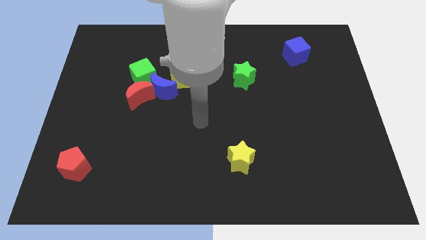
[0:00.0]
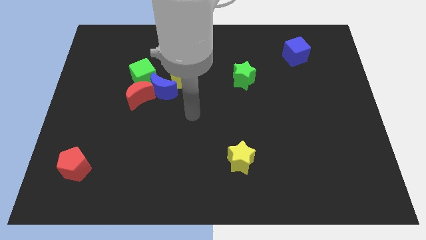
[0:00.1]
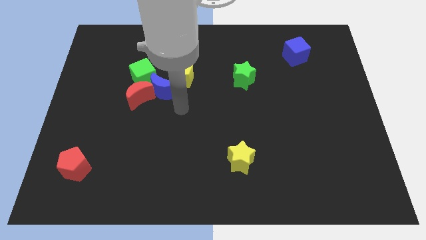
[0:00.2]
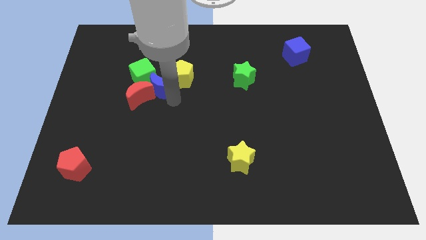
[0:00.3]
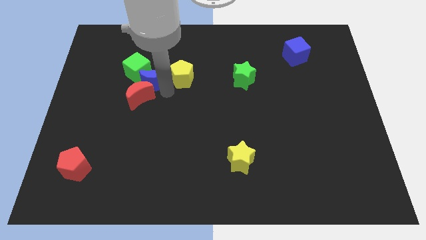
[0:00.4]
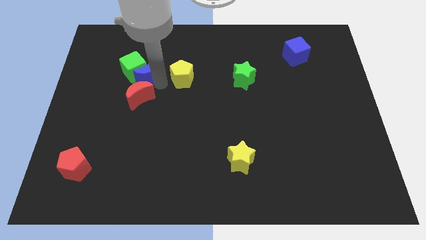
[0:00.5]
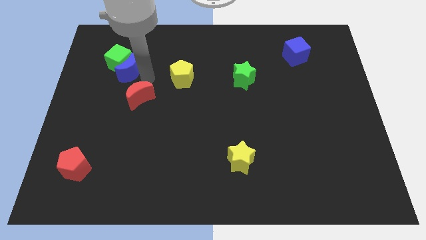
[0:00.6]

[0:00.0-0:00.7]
pull the red moon apart from the blue moon and green cube

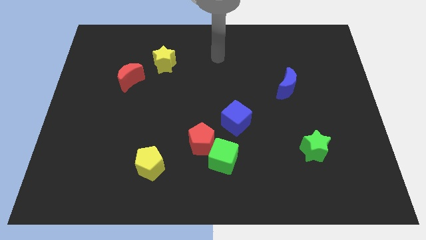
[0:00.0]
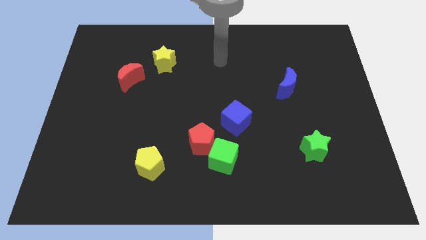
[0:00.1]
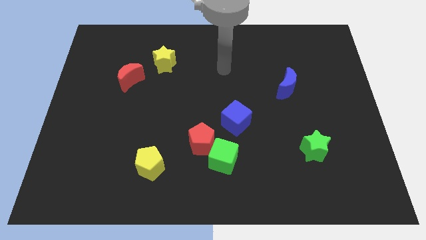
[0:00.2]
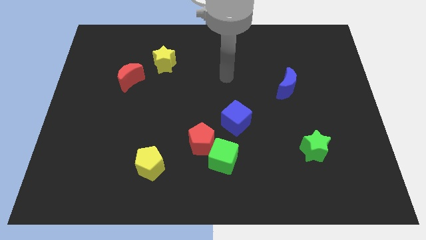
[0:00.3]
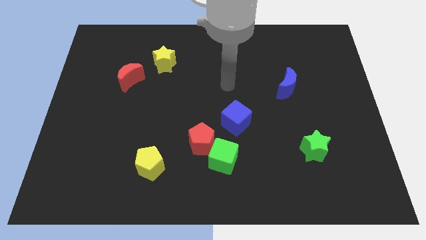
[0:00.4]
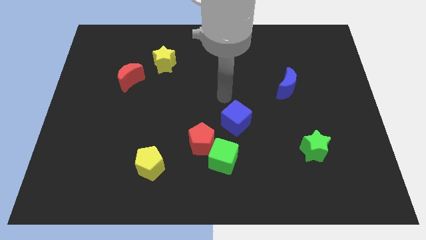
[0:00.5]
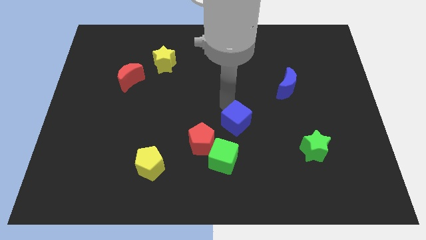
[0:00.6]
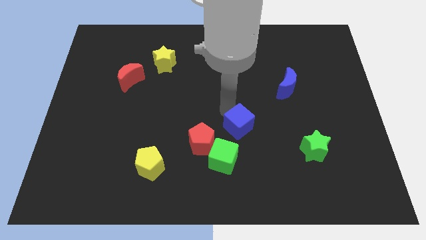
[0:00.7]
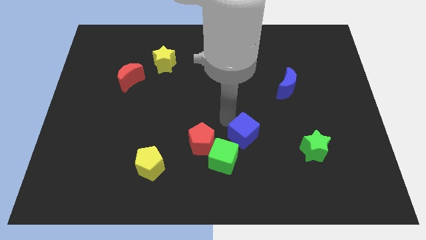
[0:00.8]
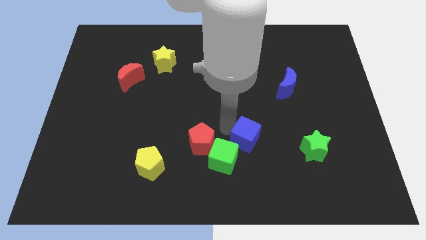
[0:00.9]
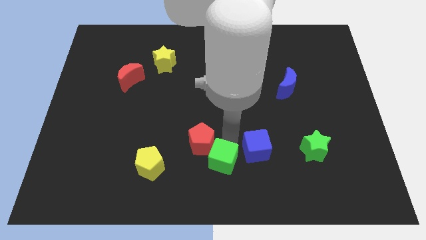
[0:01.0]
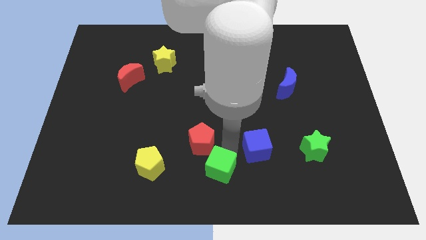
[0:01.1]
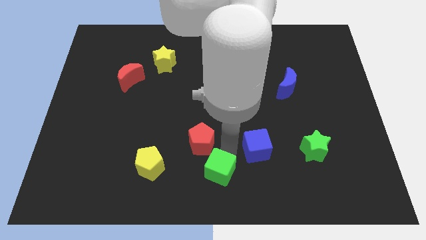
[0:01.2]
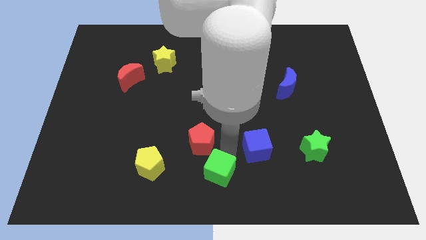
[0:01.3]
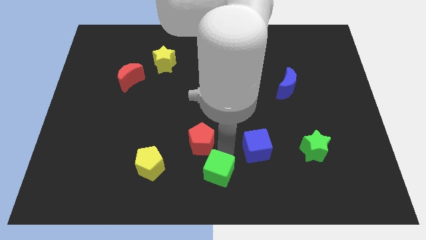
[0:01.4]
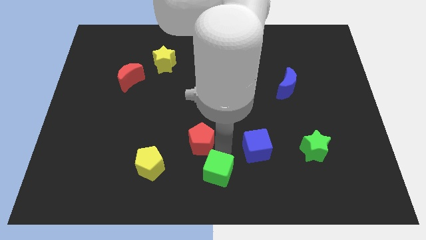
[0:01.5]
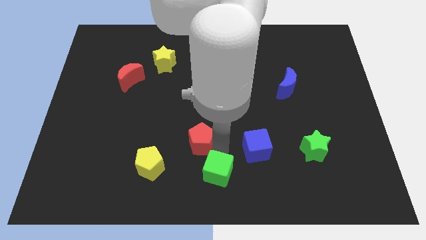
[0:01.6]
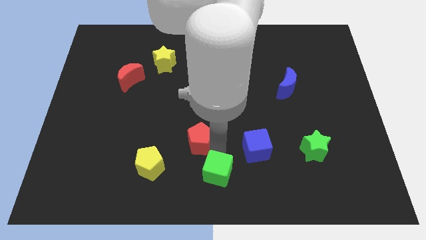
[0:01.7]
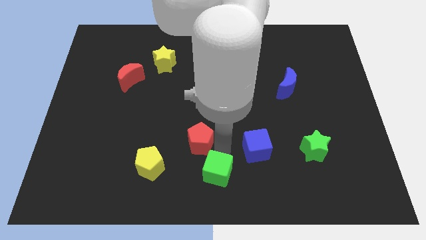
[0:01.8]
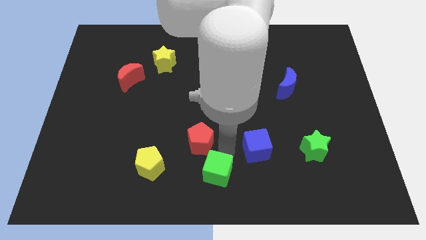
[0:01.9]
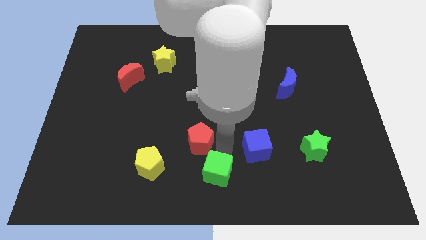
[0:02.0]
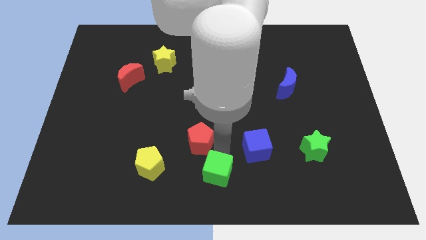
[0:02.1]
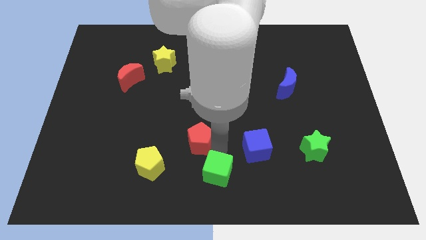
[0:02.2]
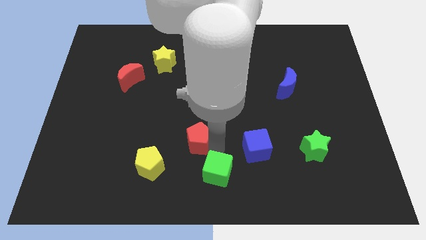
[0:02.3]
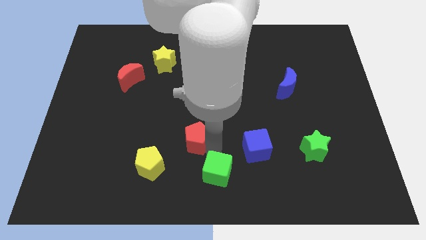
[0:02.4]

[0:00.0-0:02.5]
pull the red pentagon apart from the green cube and blue cube

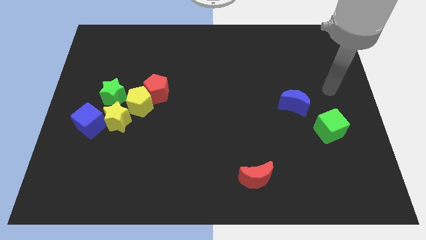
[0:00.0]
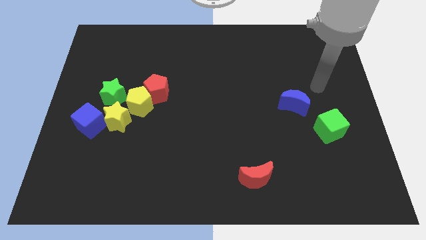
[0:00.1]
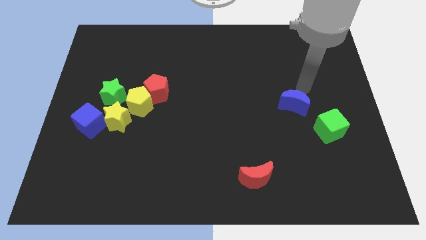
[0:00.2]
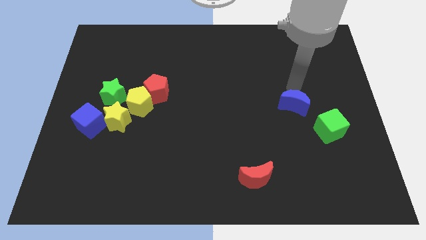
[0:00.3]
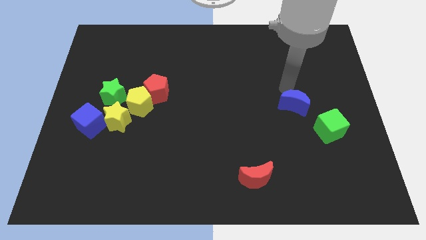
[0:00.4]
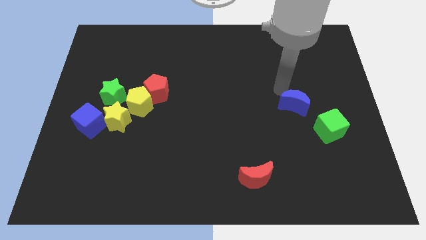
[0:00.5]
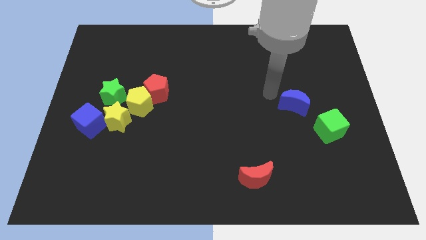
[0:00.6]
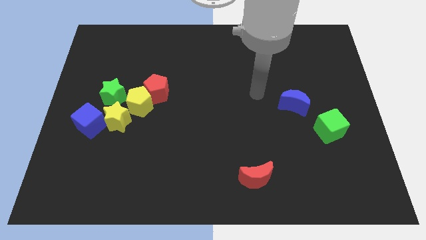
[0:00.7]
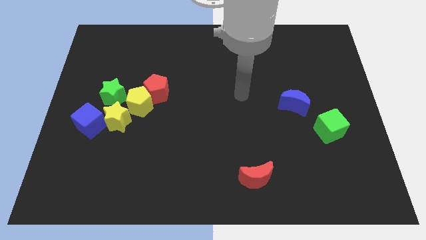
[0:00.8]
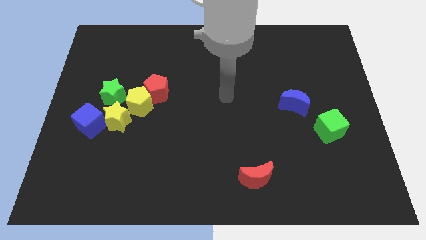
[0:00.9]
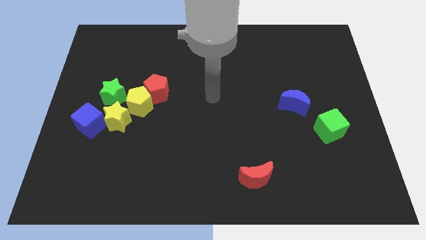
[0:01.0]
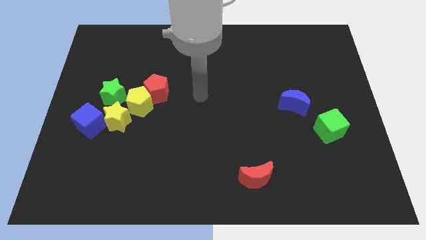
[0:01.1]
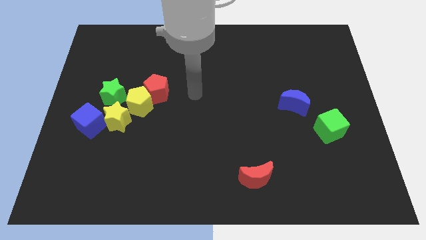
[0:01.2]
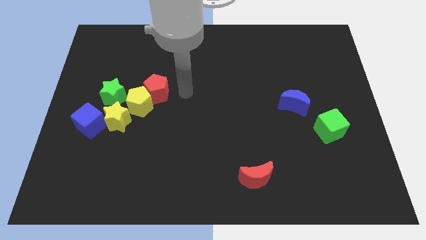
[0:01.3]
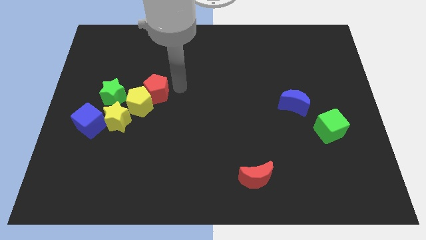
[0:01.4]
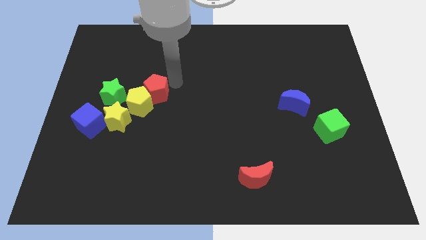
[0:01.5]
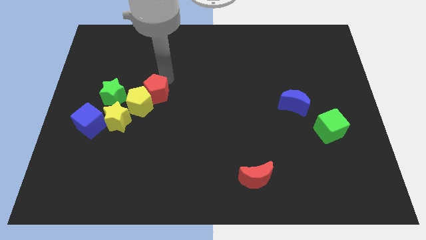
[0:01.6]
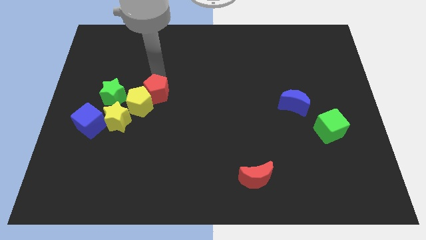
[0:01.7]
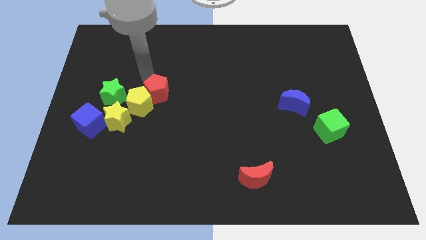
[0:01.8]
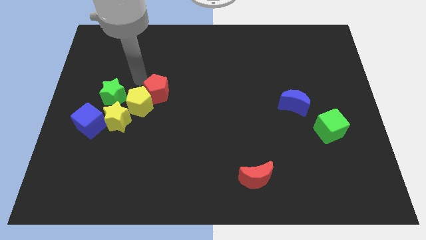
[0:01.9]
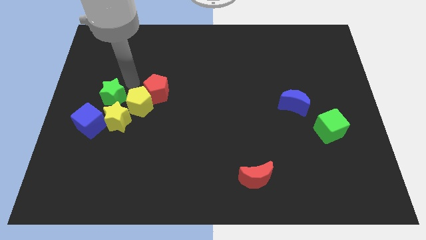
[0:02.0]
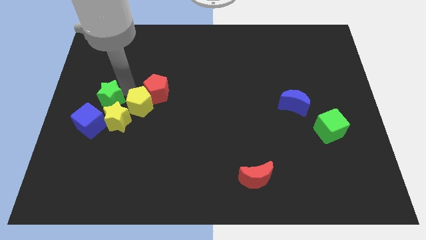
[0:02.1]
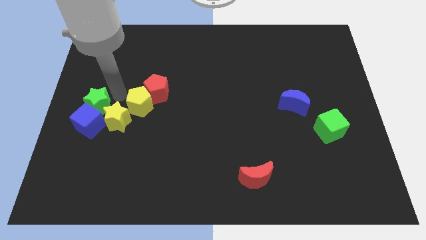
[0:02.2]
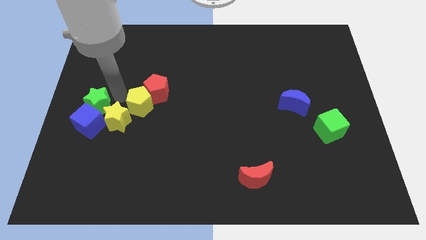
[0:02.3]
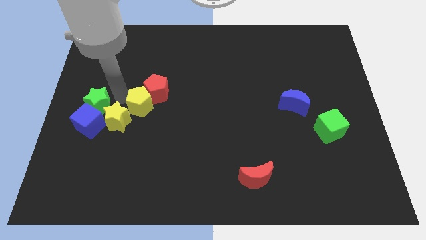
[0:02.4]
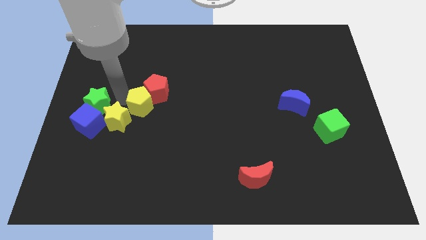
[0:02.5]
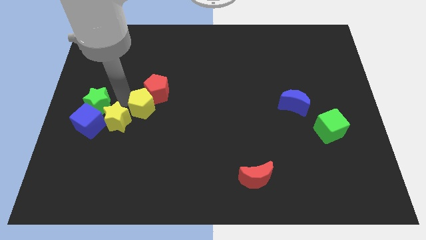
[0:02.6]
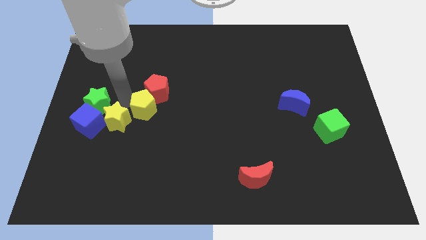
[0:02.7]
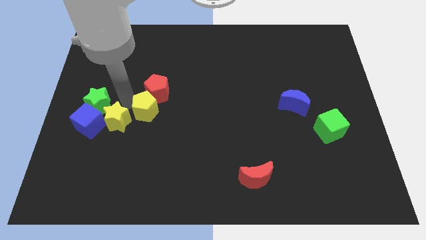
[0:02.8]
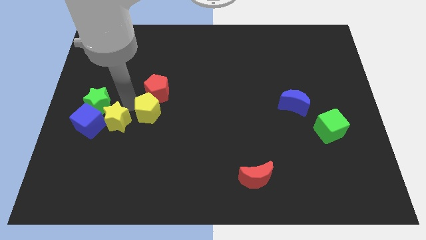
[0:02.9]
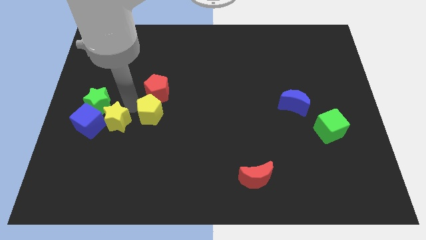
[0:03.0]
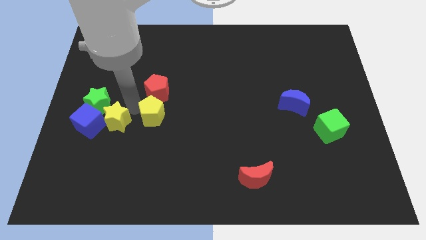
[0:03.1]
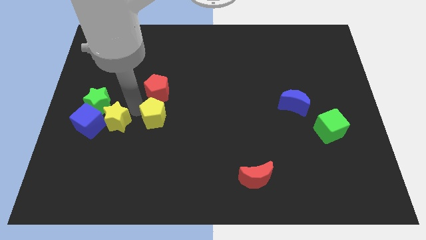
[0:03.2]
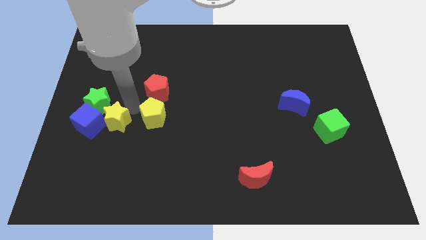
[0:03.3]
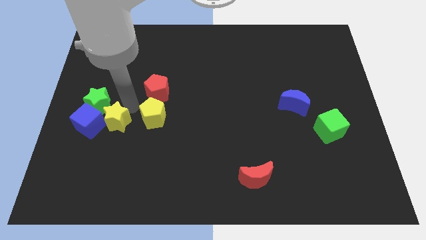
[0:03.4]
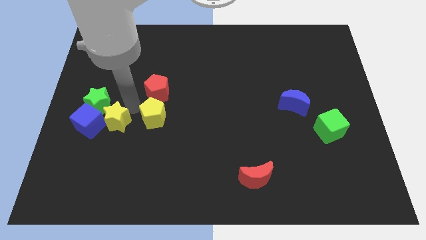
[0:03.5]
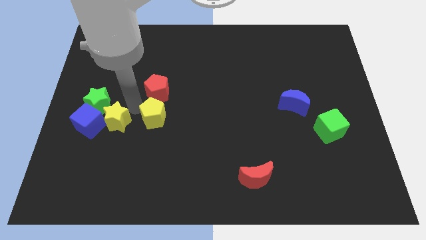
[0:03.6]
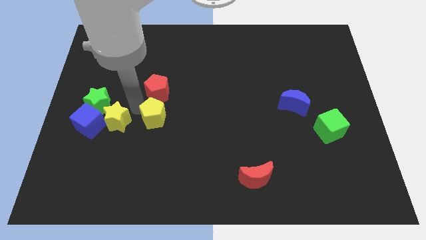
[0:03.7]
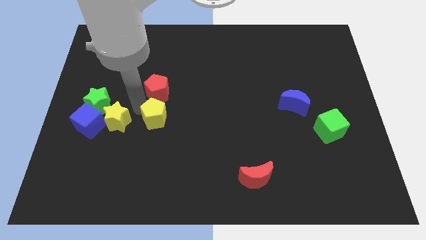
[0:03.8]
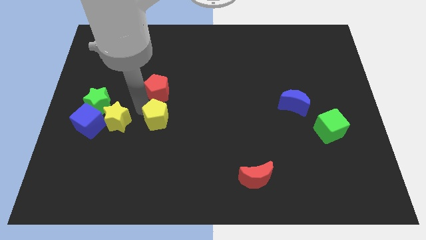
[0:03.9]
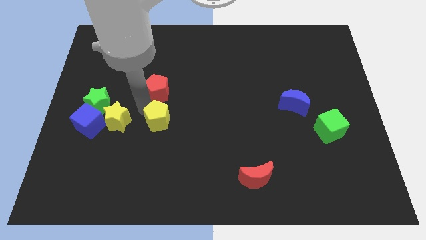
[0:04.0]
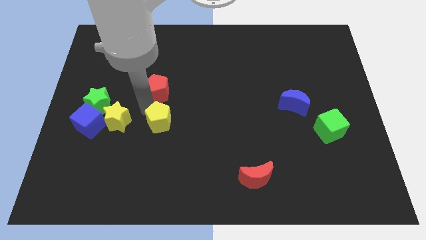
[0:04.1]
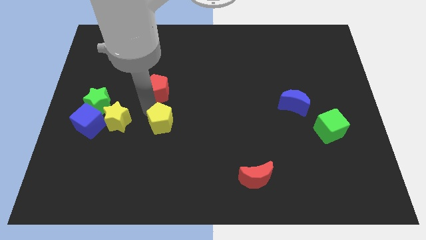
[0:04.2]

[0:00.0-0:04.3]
separate the yellow pentagon from the red pentagon, yellow star, and green star

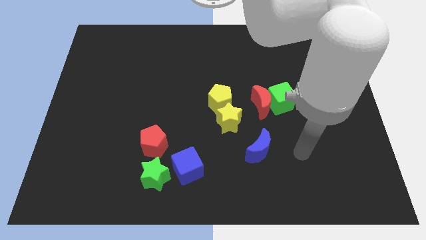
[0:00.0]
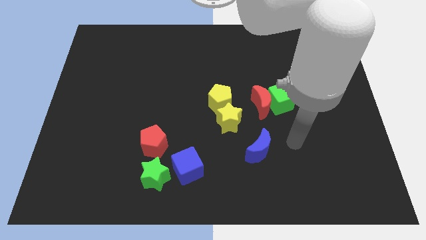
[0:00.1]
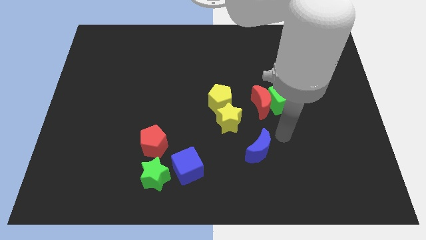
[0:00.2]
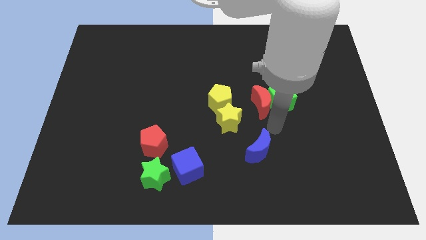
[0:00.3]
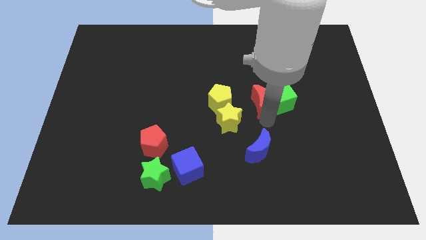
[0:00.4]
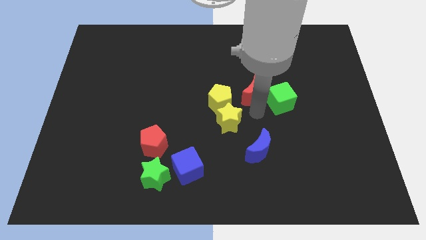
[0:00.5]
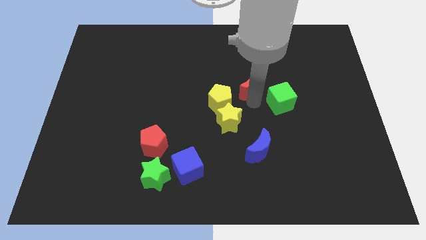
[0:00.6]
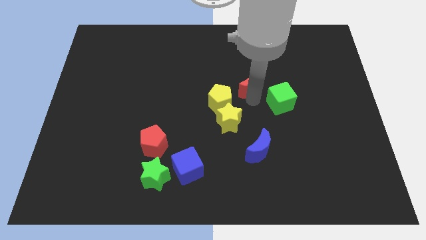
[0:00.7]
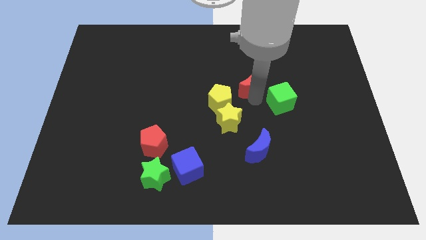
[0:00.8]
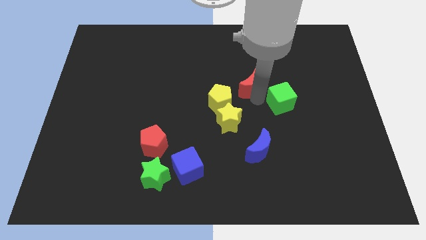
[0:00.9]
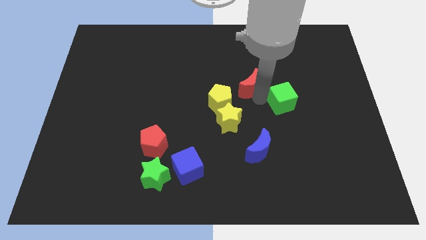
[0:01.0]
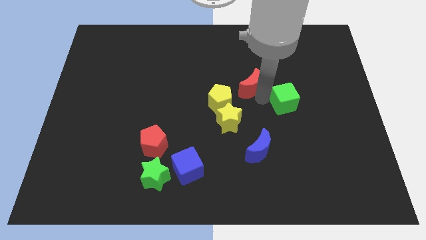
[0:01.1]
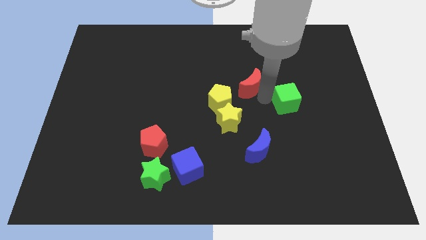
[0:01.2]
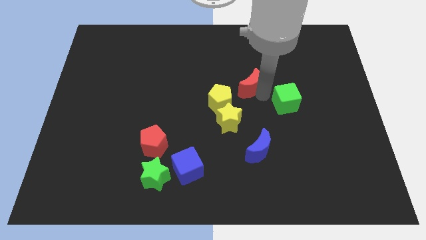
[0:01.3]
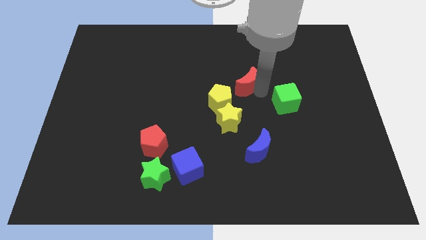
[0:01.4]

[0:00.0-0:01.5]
pull the green cube apart from the red moon

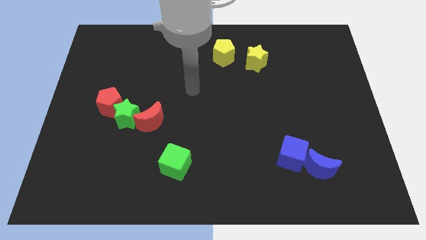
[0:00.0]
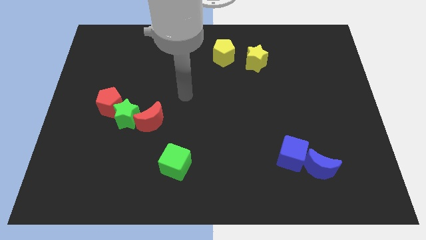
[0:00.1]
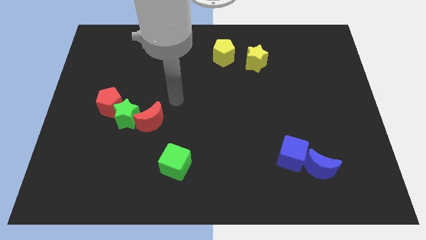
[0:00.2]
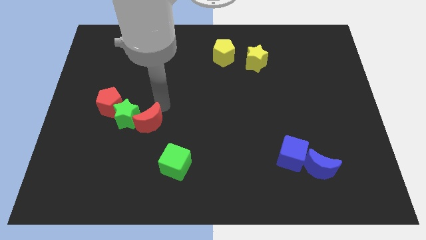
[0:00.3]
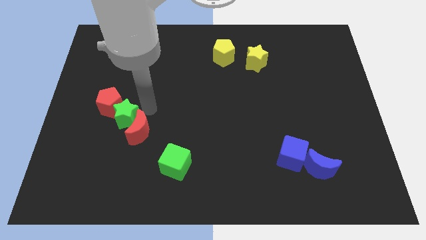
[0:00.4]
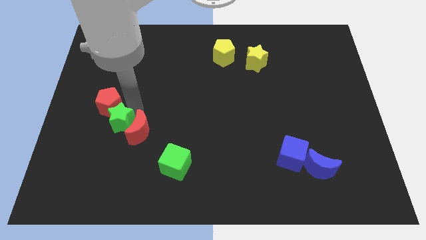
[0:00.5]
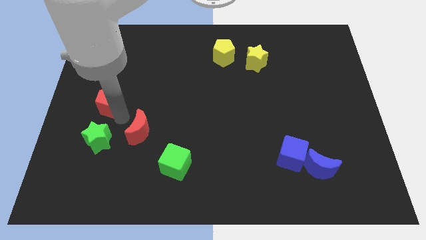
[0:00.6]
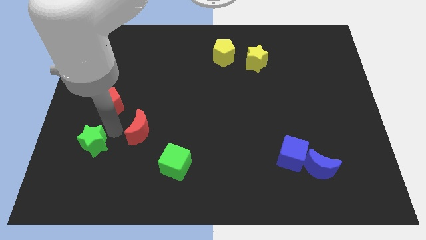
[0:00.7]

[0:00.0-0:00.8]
pull the red moon apart from the green star
